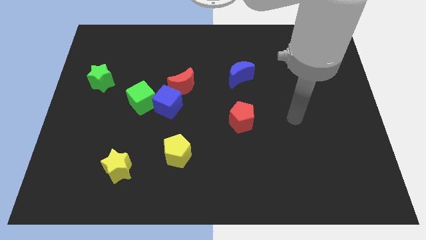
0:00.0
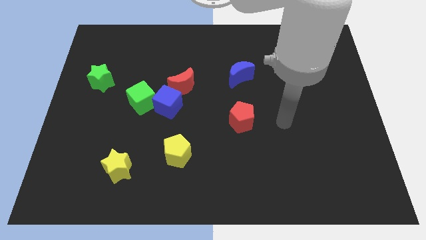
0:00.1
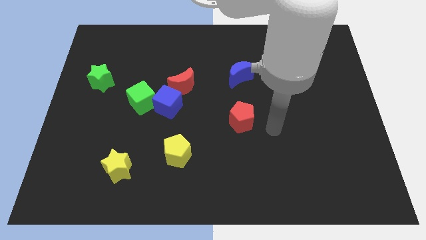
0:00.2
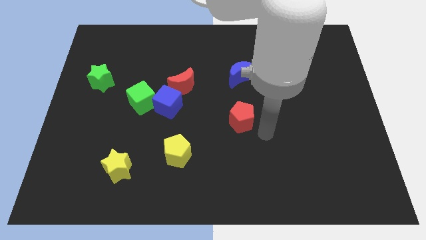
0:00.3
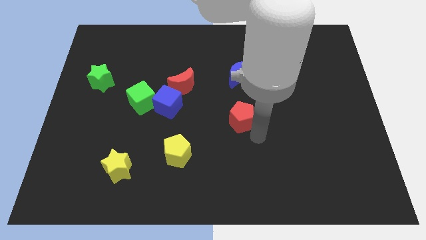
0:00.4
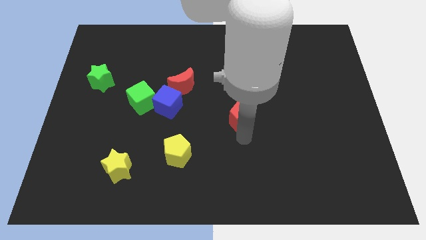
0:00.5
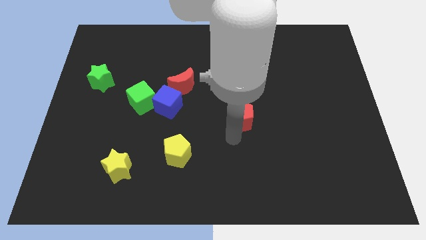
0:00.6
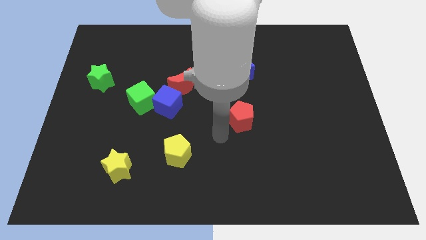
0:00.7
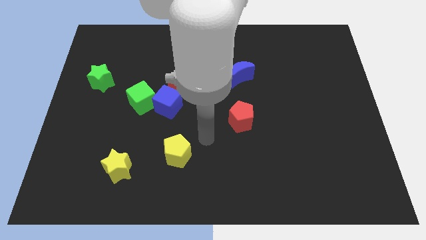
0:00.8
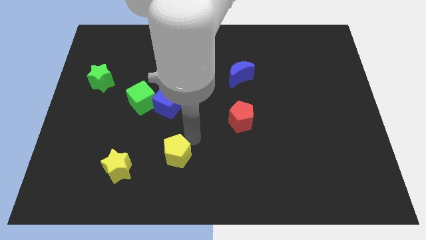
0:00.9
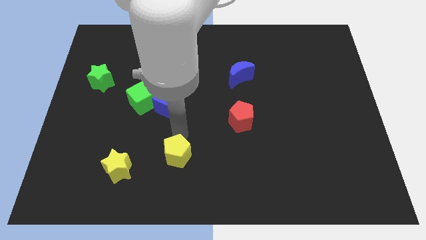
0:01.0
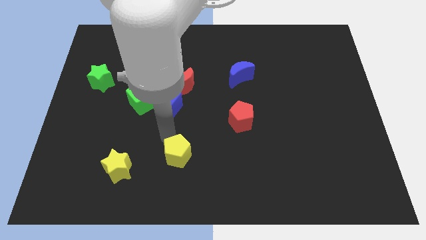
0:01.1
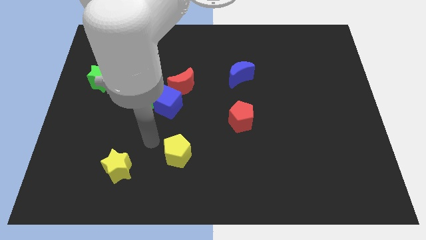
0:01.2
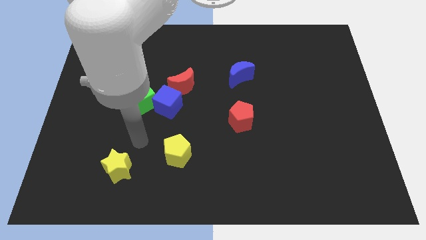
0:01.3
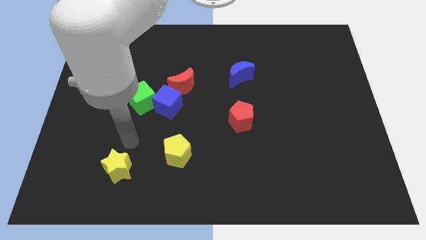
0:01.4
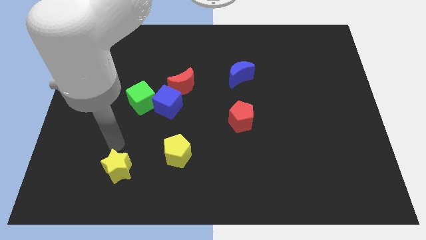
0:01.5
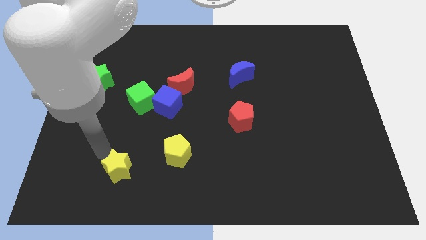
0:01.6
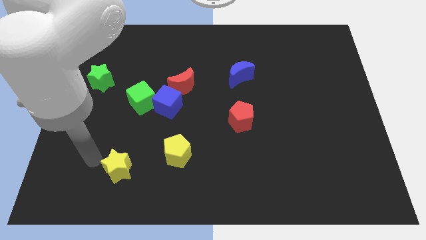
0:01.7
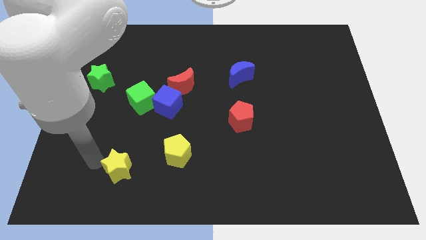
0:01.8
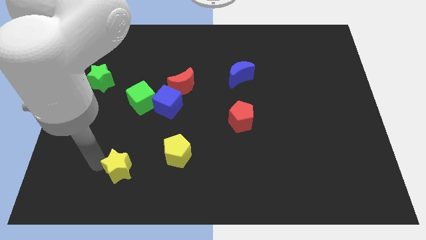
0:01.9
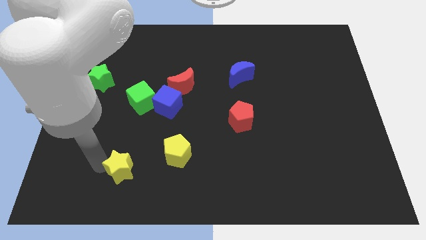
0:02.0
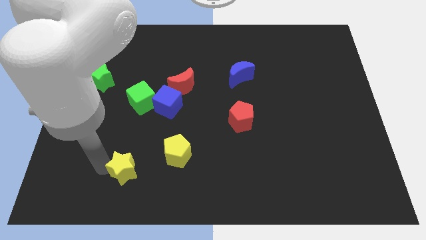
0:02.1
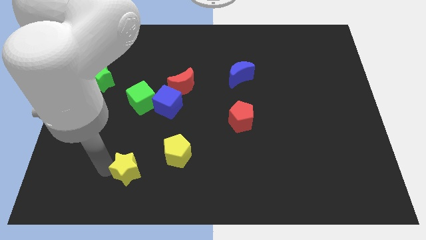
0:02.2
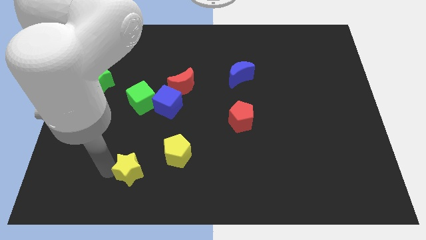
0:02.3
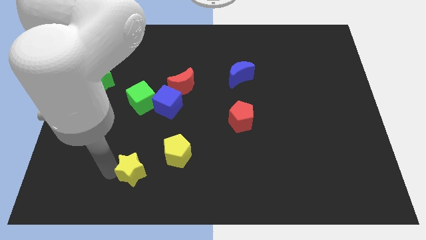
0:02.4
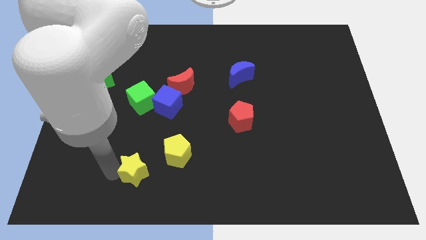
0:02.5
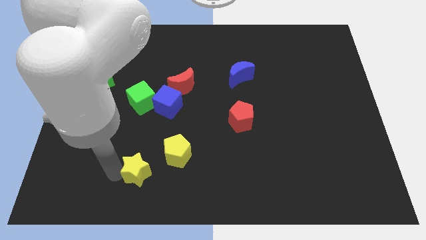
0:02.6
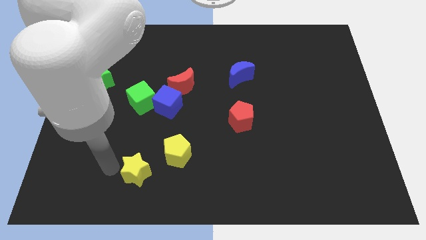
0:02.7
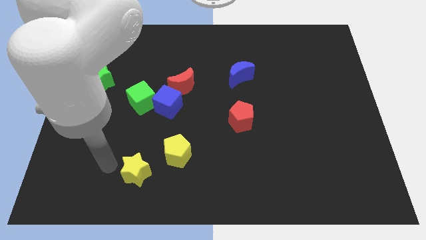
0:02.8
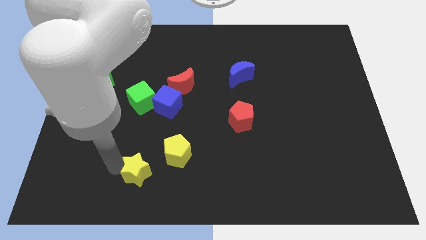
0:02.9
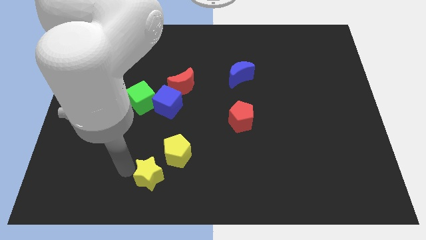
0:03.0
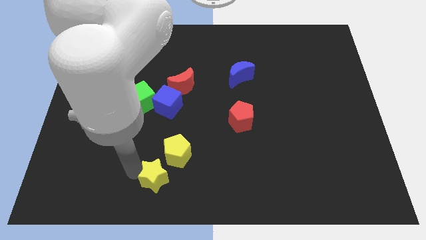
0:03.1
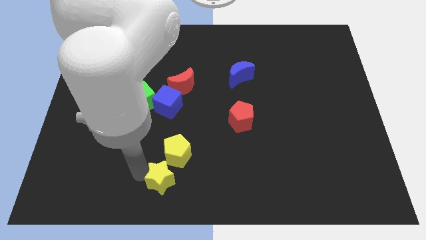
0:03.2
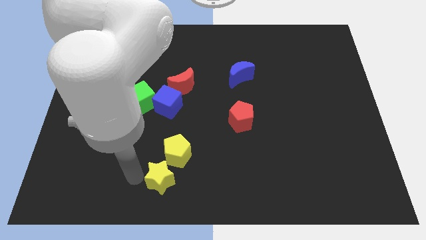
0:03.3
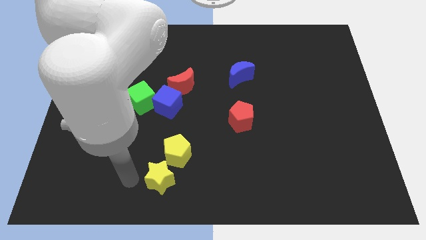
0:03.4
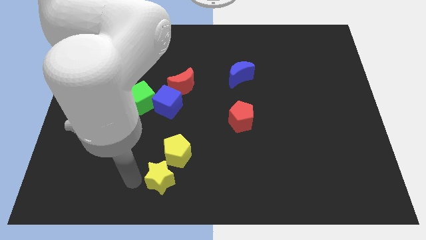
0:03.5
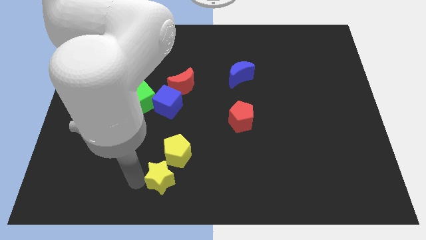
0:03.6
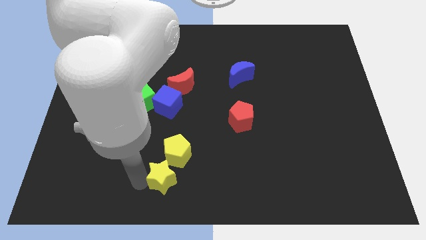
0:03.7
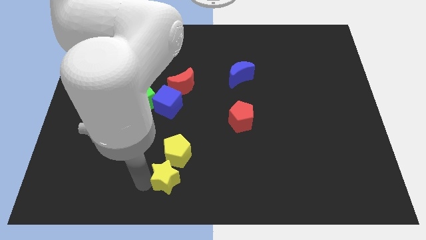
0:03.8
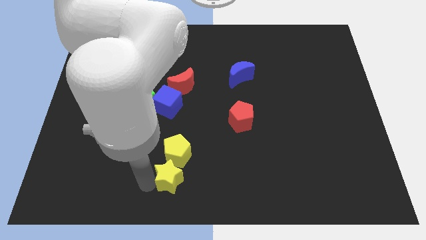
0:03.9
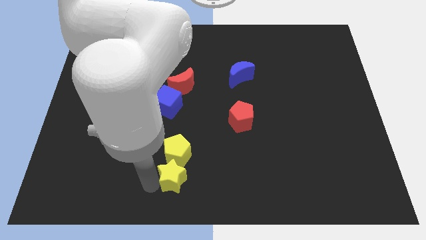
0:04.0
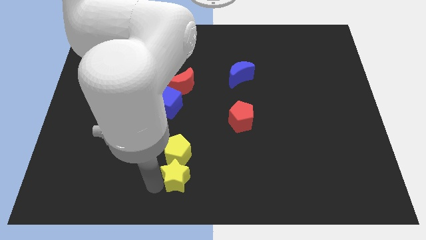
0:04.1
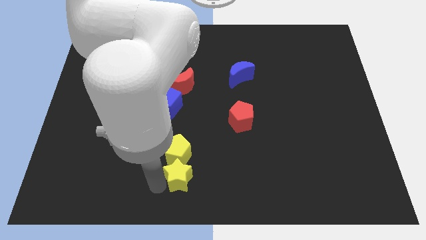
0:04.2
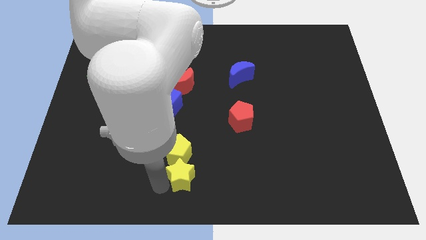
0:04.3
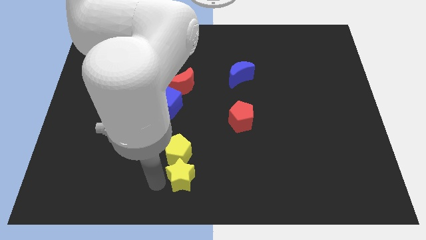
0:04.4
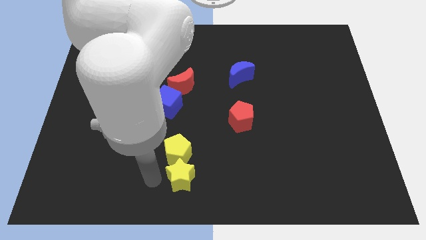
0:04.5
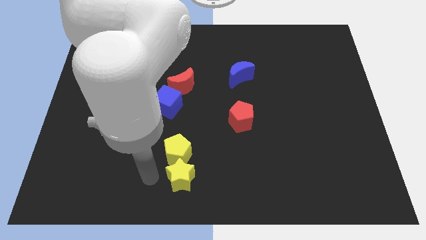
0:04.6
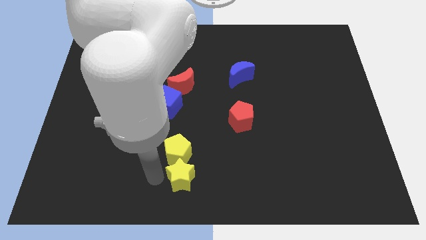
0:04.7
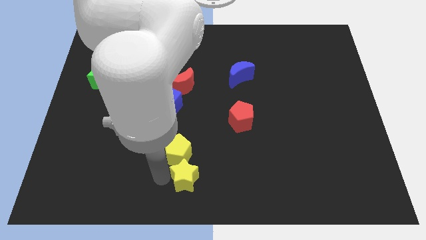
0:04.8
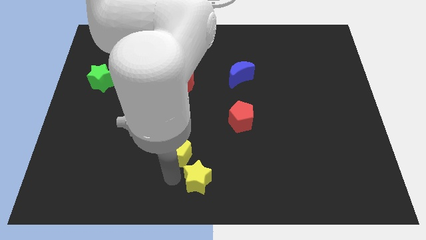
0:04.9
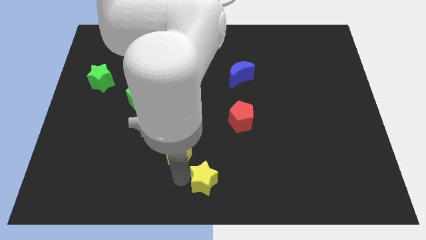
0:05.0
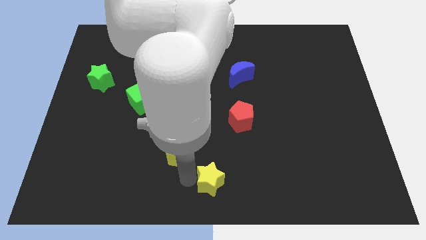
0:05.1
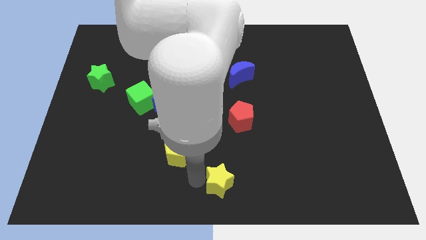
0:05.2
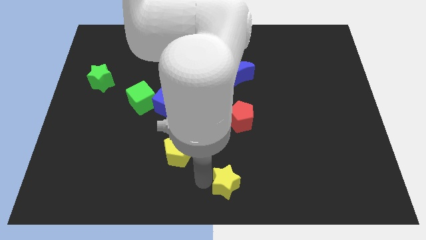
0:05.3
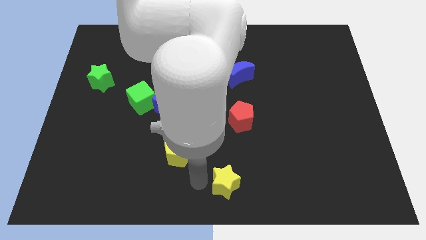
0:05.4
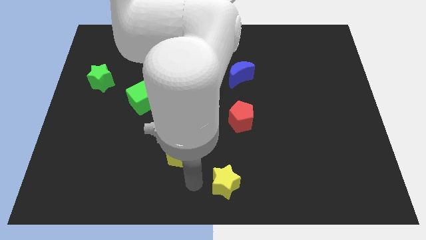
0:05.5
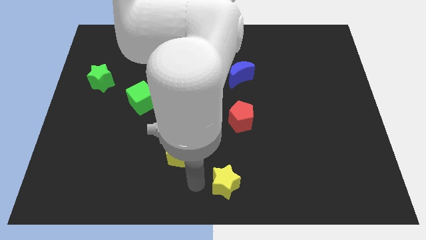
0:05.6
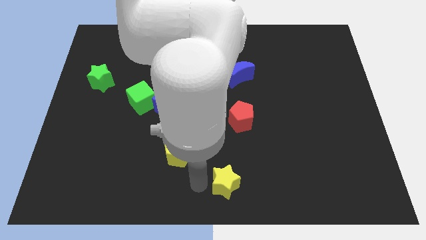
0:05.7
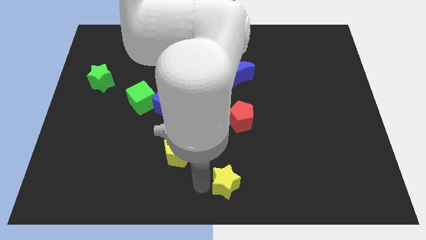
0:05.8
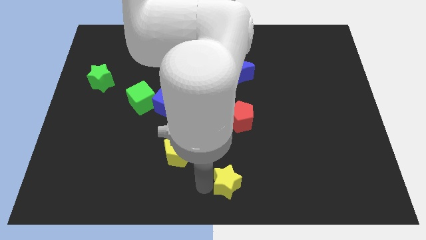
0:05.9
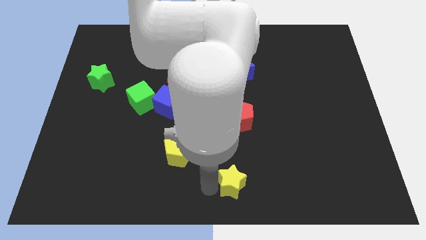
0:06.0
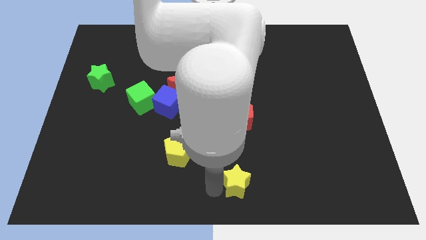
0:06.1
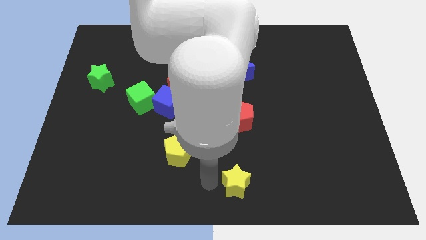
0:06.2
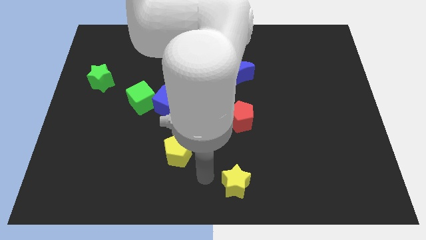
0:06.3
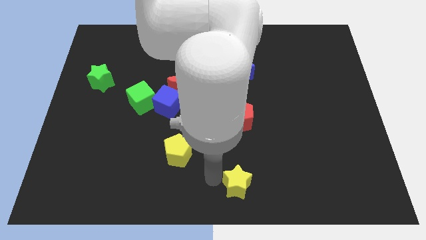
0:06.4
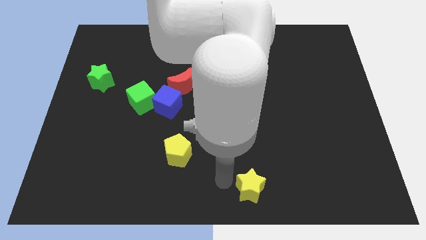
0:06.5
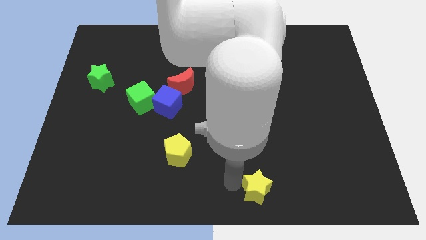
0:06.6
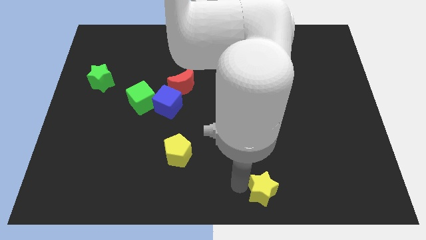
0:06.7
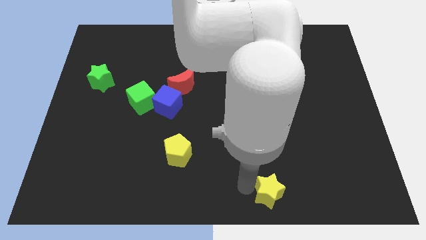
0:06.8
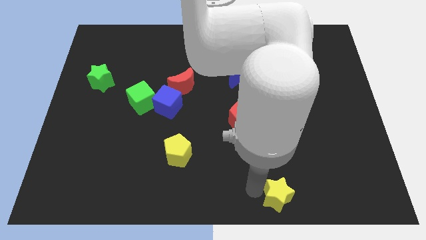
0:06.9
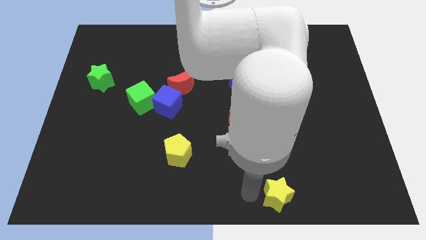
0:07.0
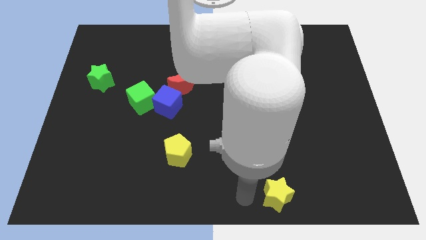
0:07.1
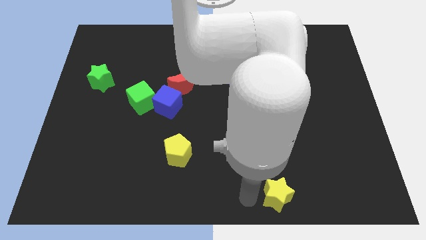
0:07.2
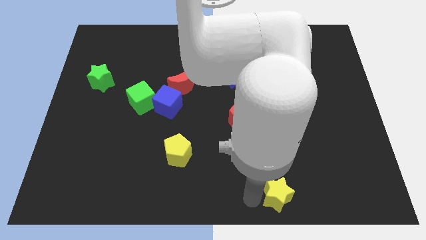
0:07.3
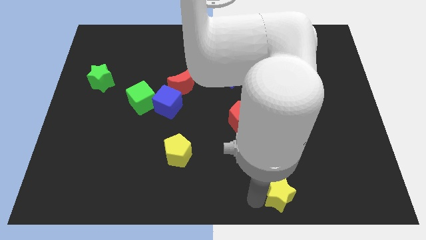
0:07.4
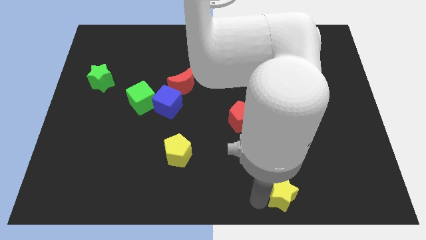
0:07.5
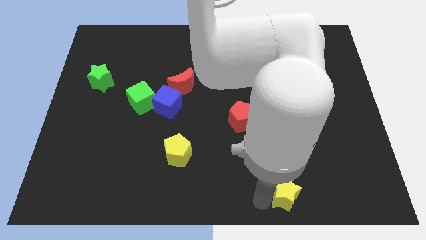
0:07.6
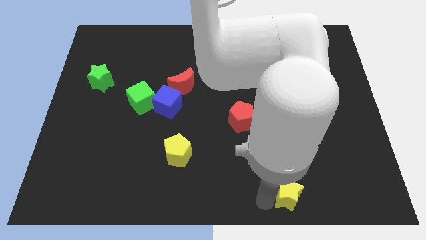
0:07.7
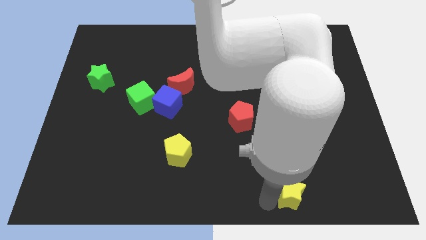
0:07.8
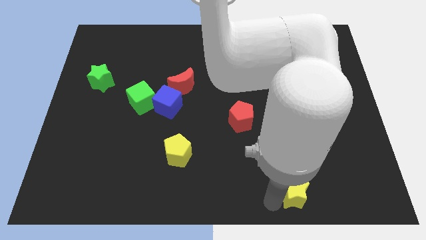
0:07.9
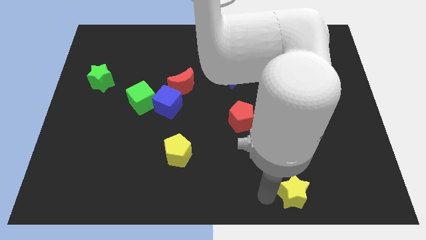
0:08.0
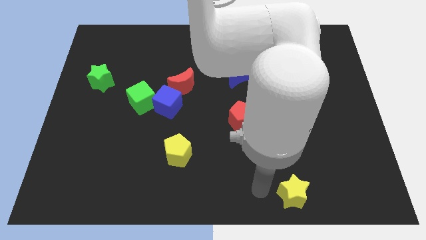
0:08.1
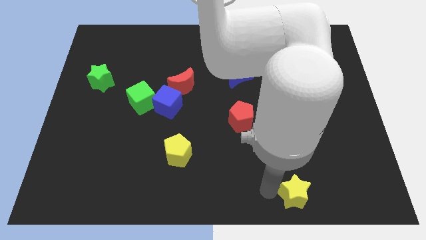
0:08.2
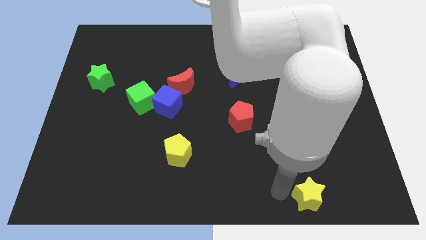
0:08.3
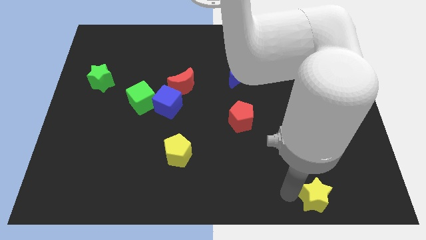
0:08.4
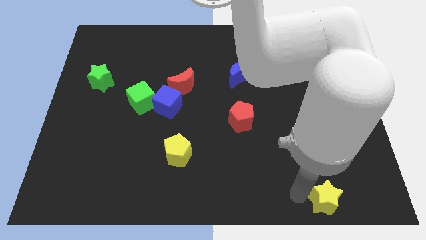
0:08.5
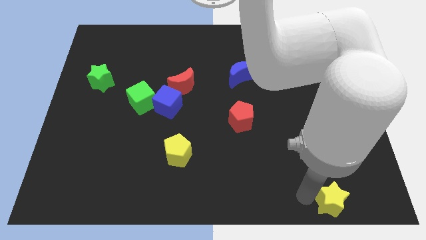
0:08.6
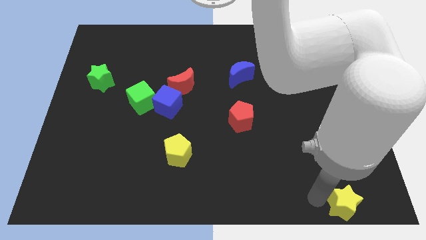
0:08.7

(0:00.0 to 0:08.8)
put the yellow star to the lower right corner
